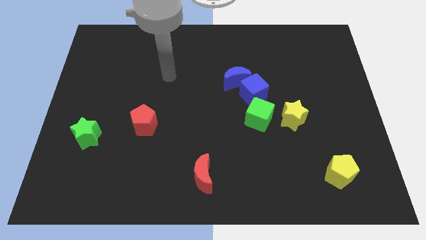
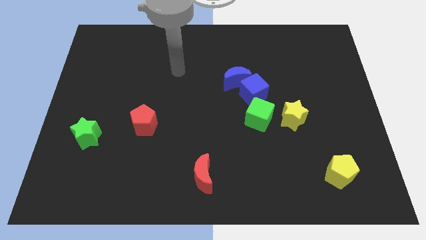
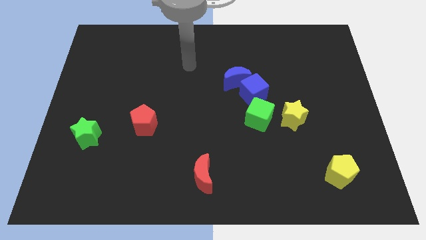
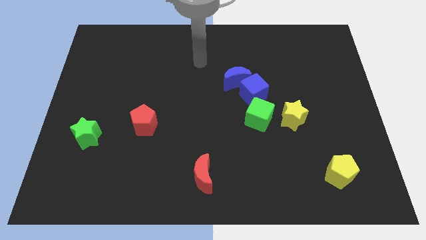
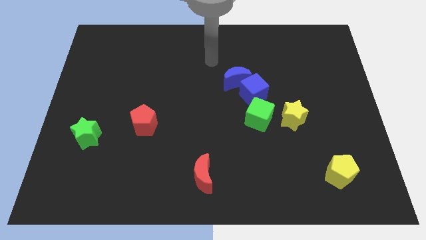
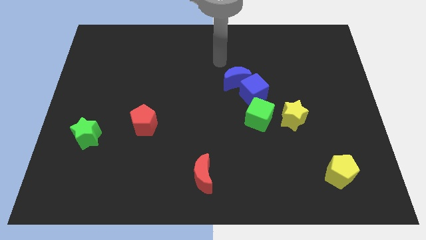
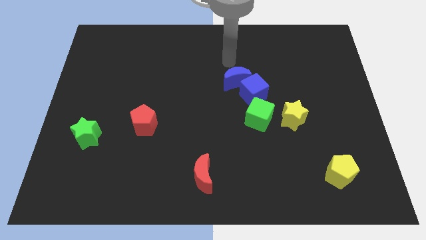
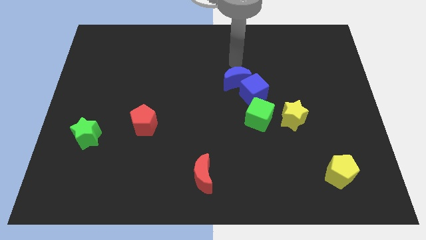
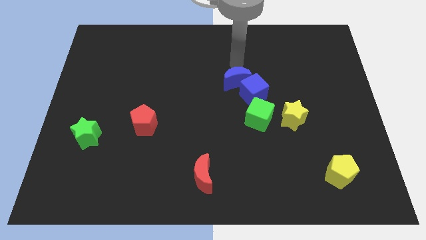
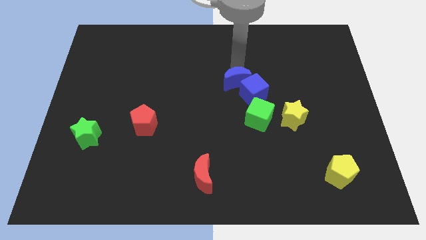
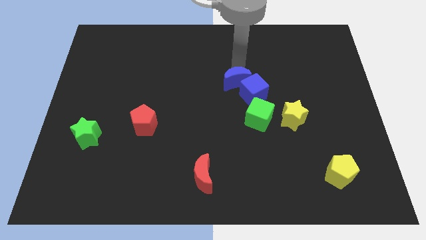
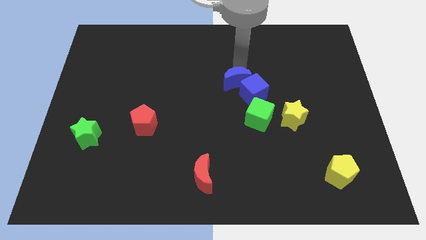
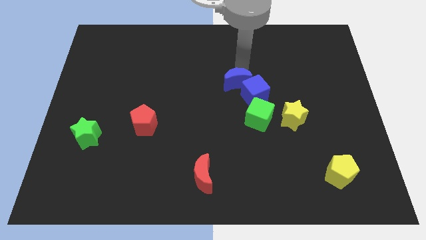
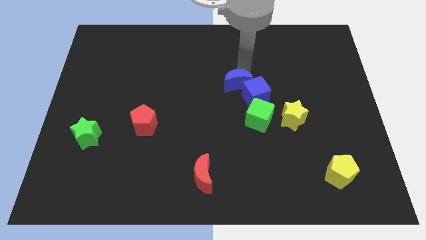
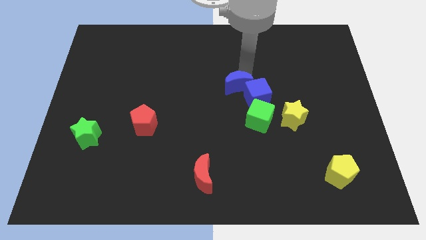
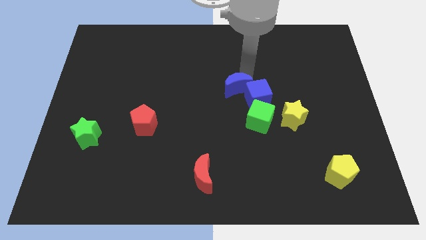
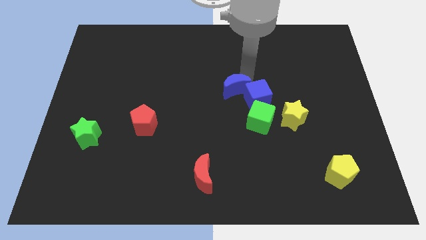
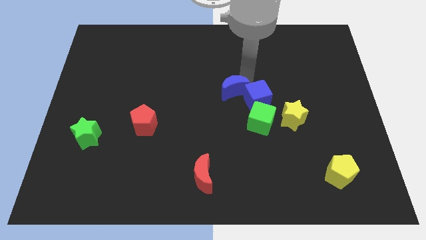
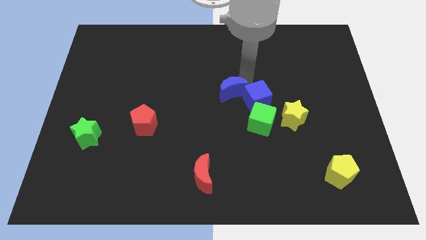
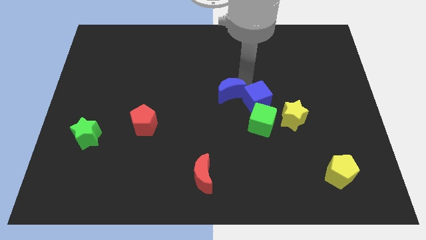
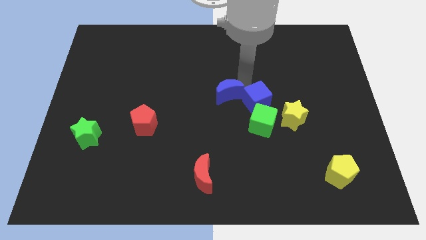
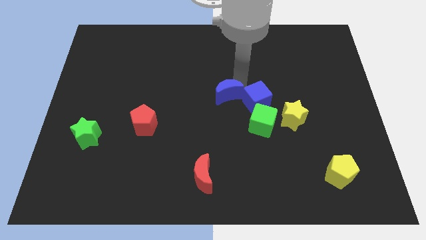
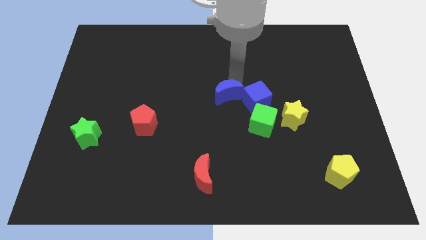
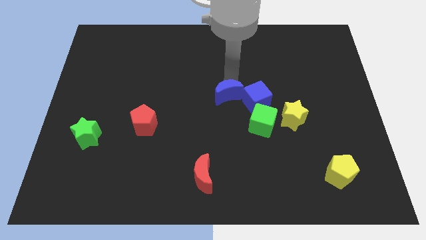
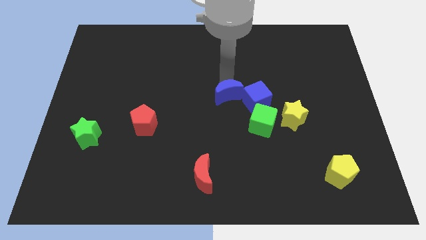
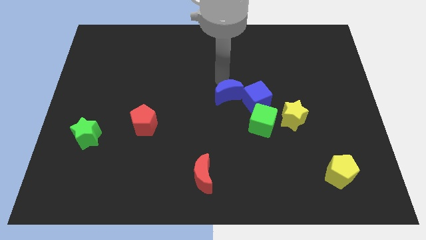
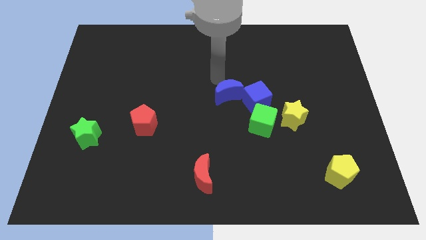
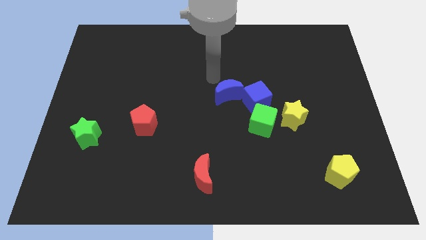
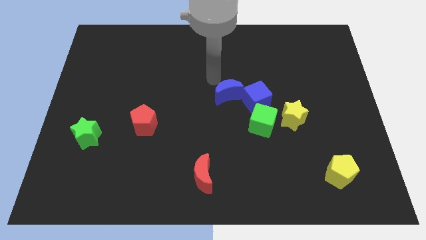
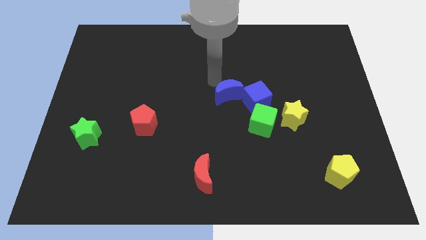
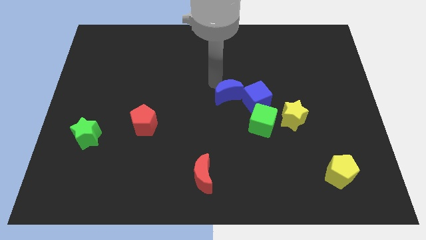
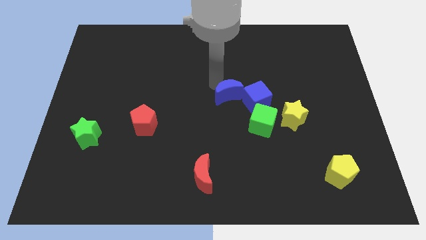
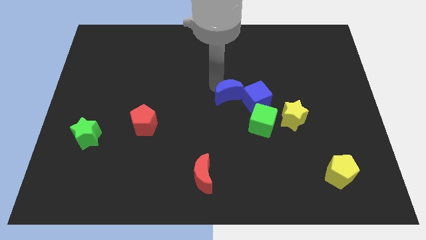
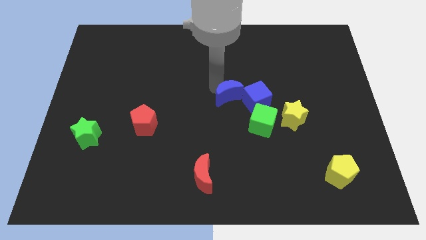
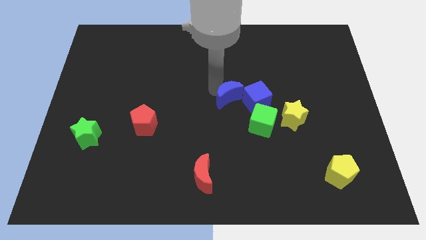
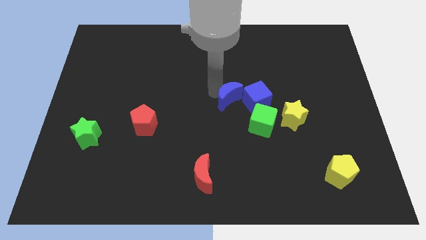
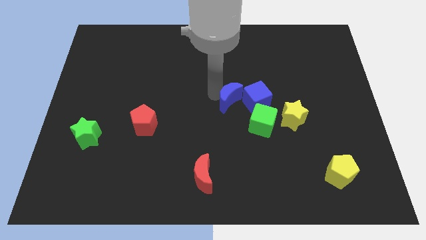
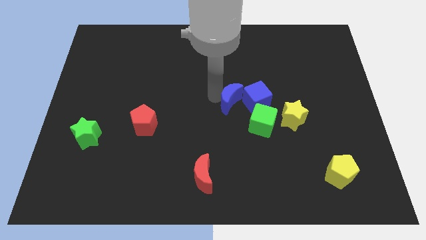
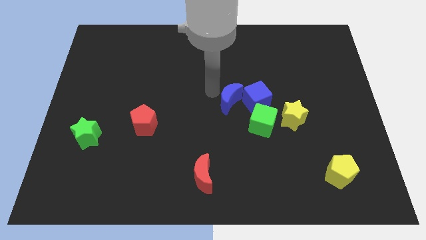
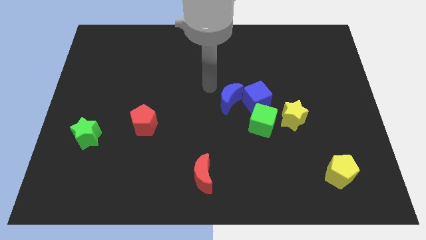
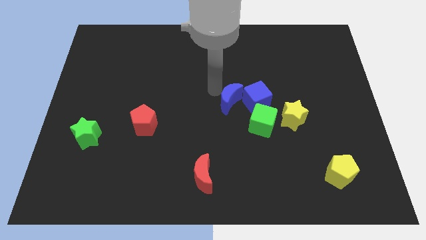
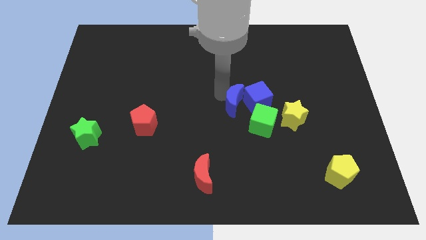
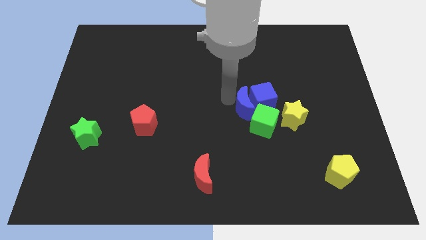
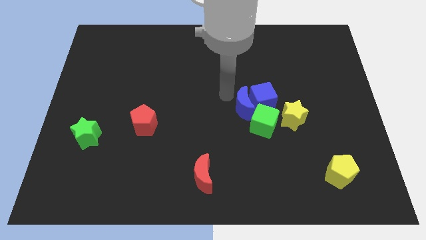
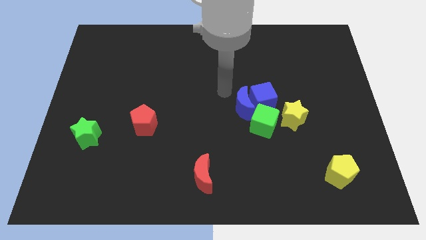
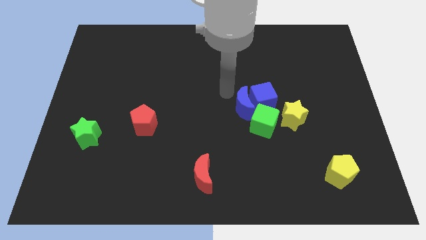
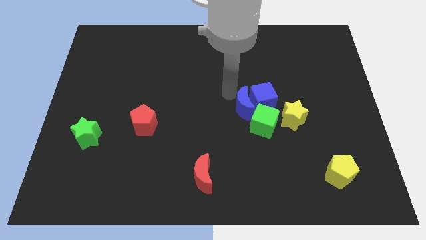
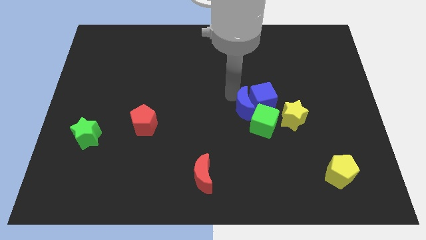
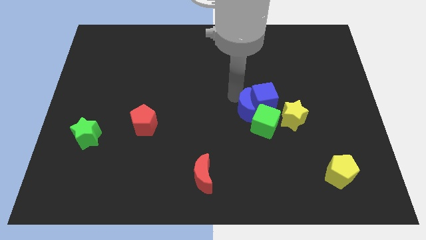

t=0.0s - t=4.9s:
move the blue moon close to the green cube

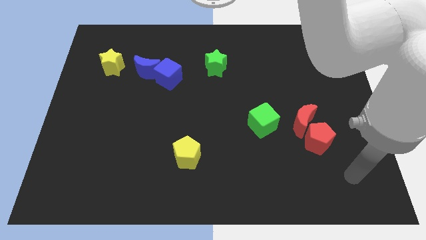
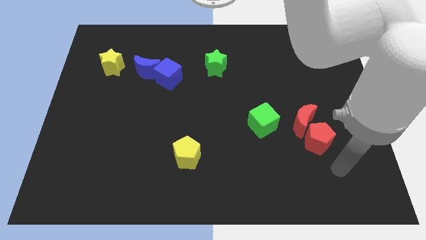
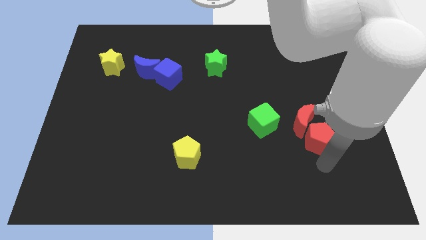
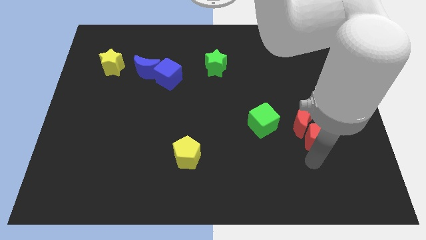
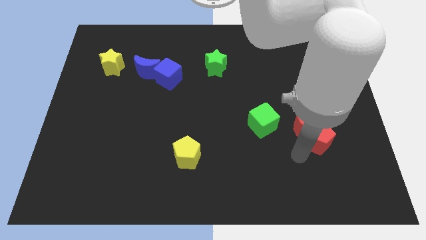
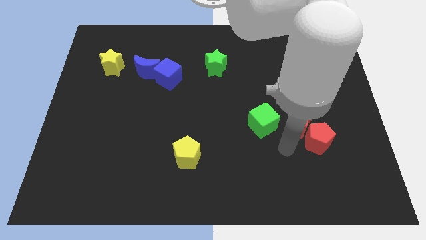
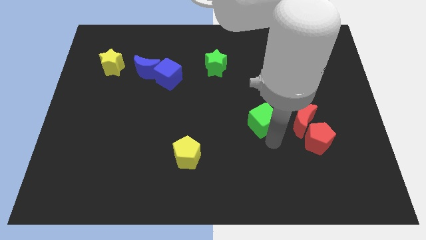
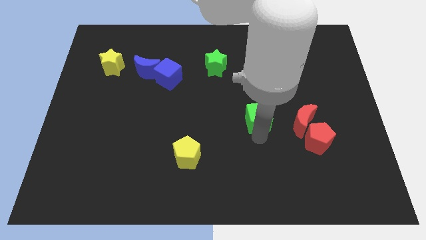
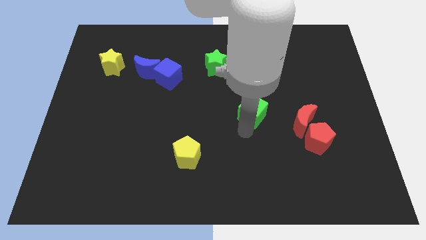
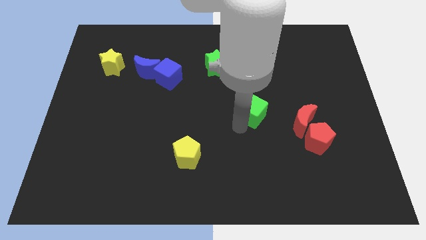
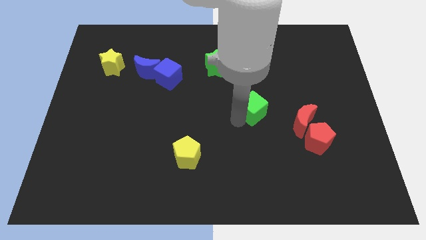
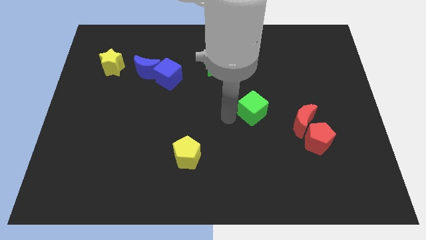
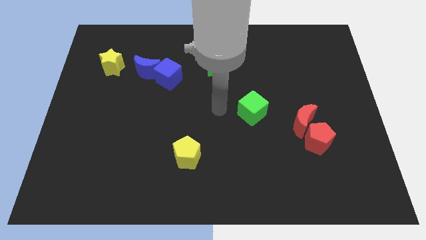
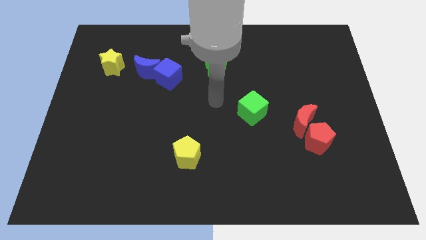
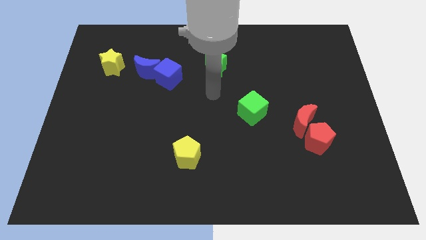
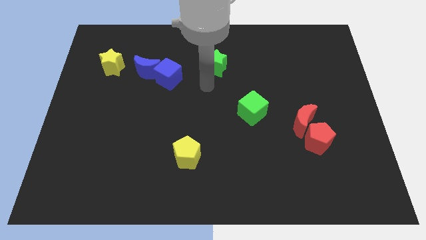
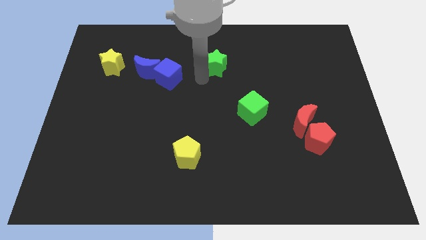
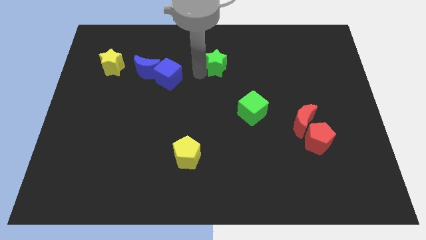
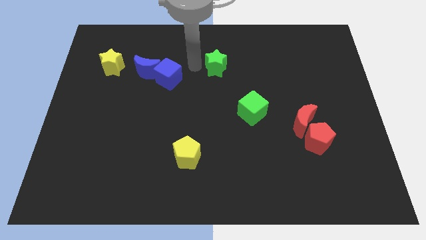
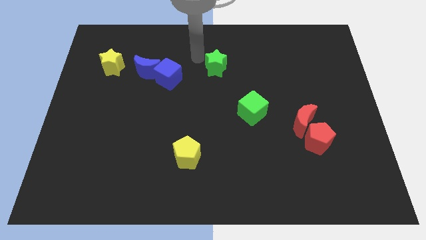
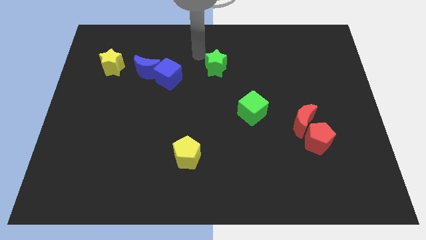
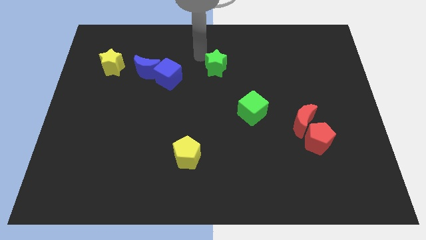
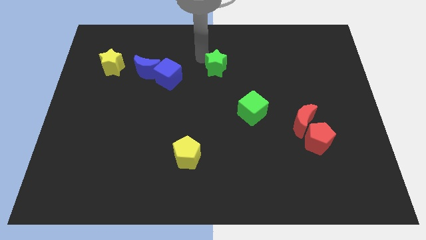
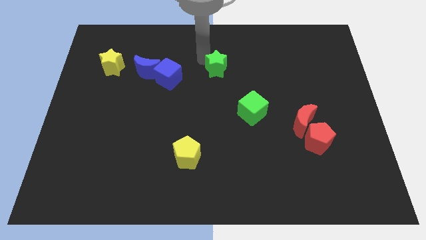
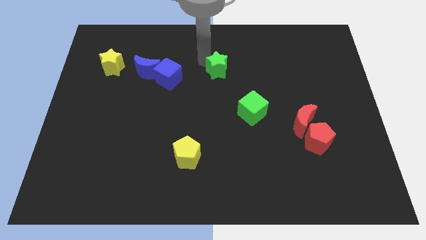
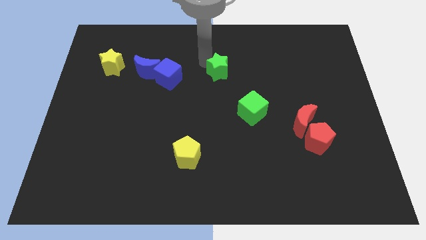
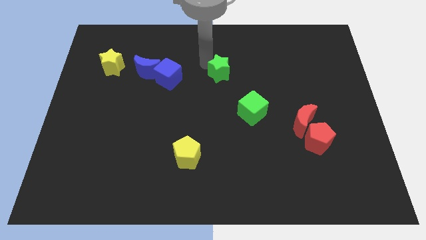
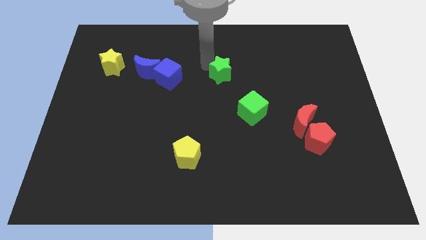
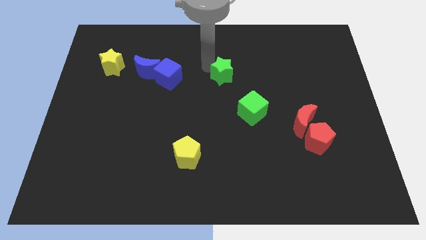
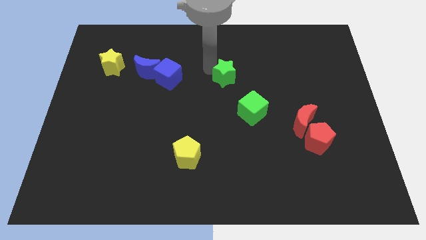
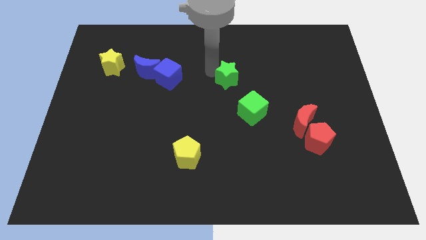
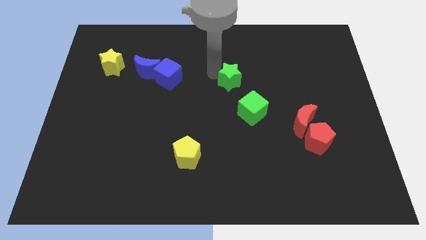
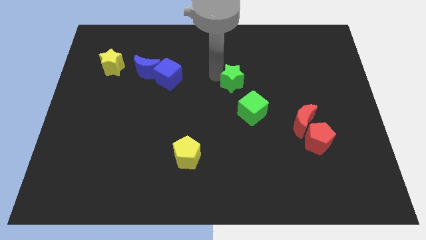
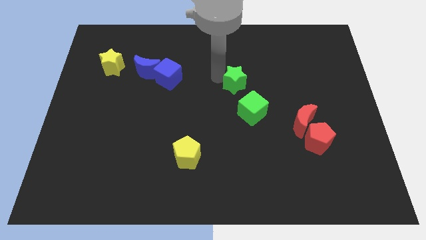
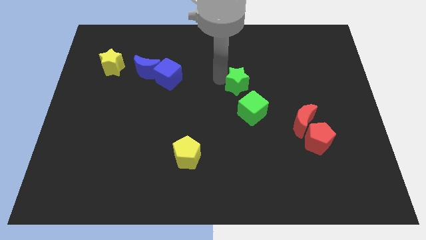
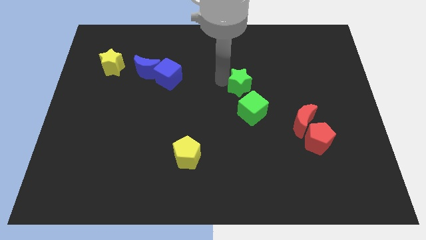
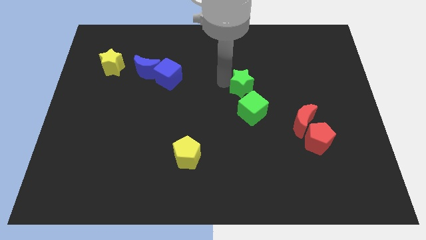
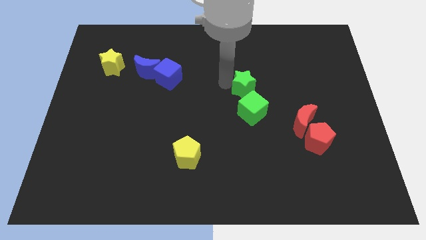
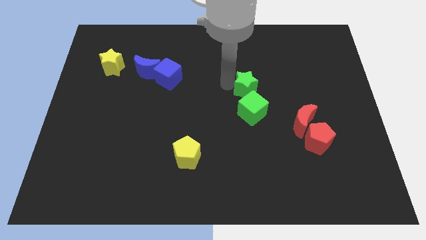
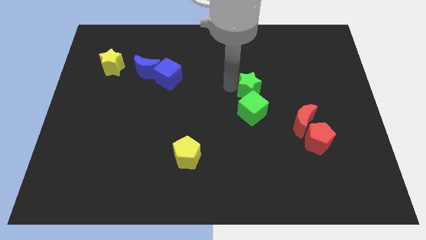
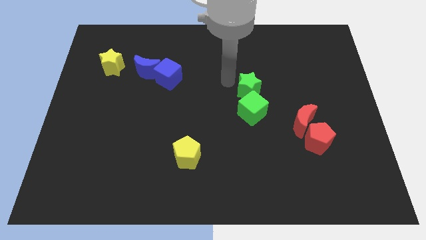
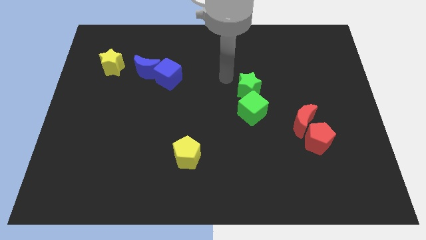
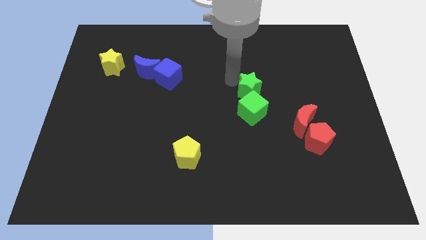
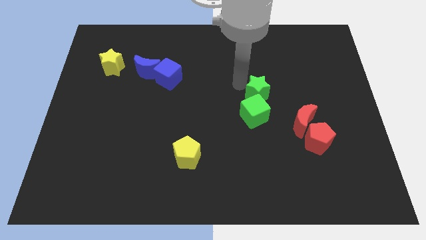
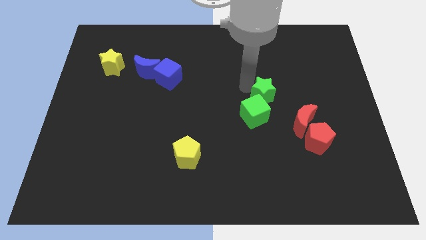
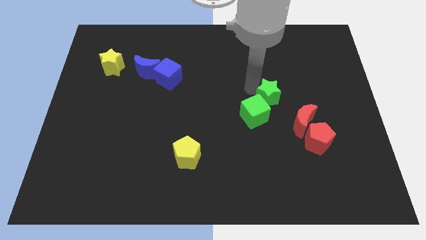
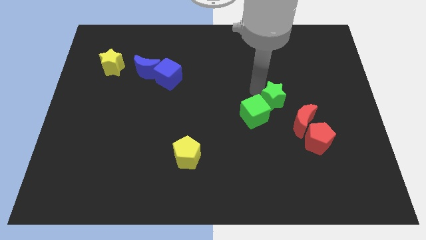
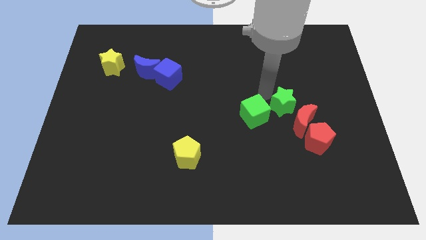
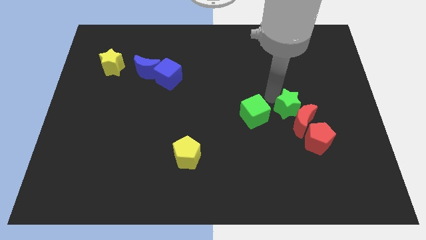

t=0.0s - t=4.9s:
move the green star towards the red moon
